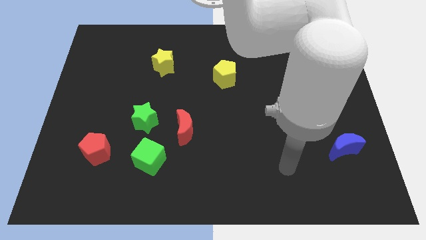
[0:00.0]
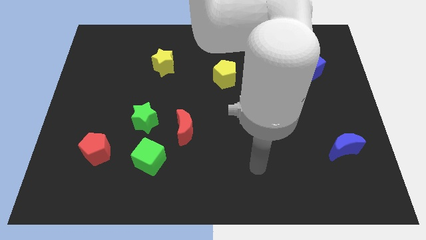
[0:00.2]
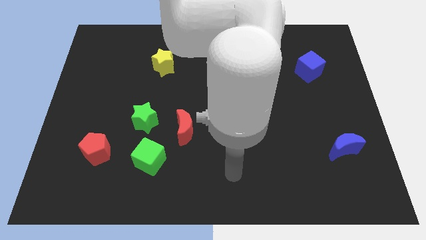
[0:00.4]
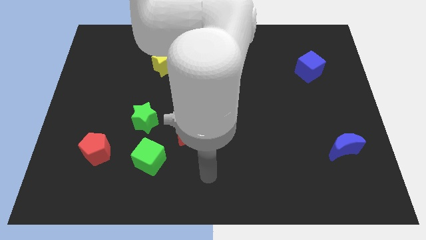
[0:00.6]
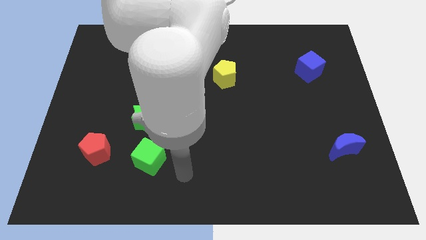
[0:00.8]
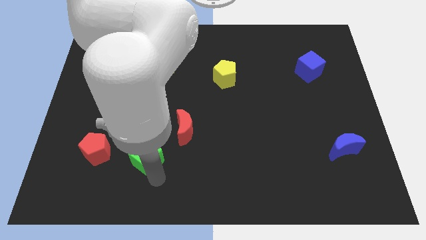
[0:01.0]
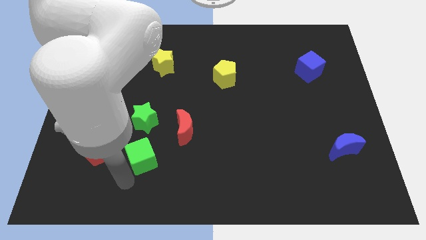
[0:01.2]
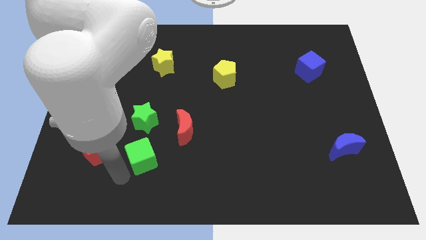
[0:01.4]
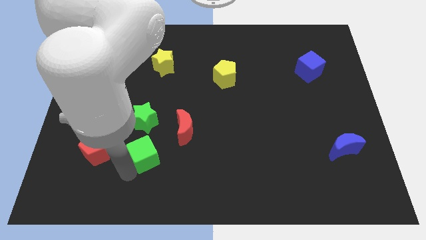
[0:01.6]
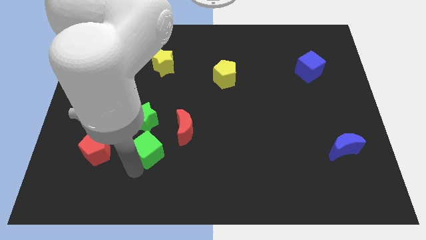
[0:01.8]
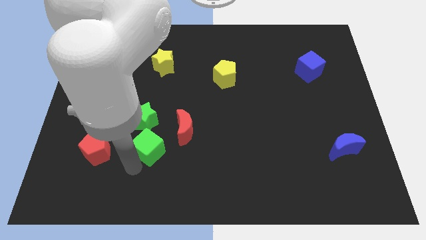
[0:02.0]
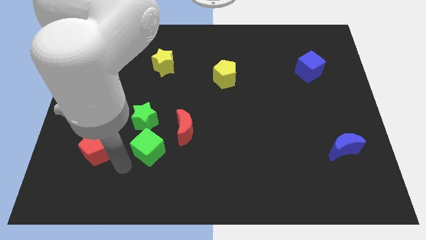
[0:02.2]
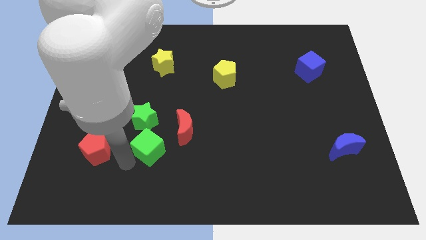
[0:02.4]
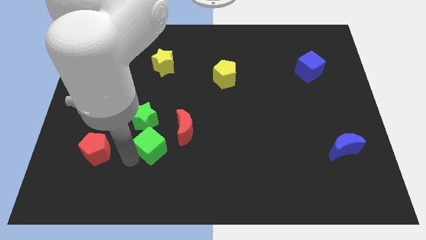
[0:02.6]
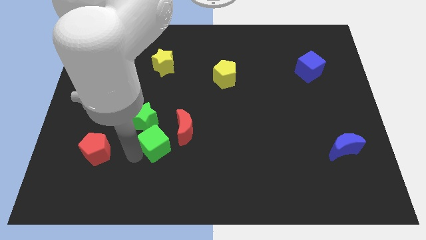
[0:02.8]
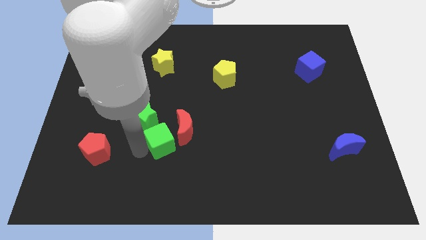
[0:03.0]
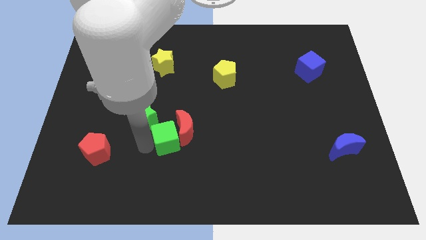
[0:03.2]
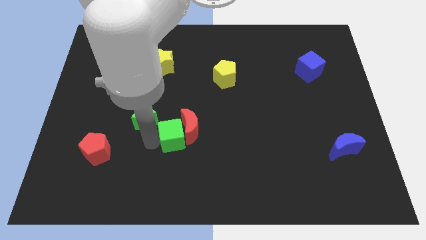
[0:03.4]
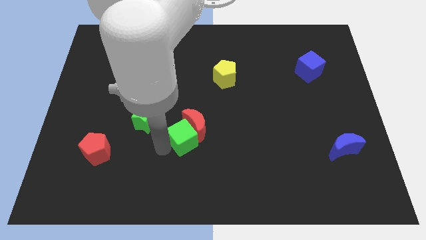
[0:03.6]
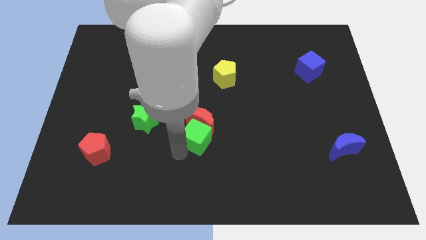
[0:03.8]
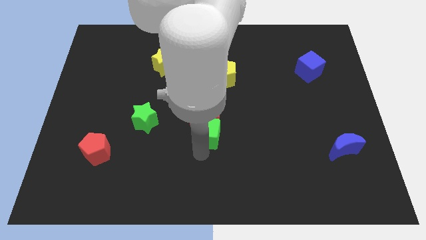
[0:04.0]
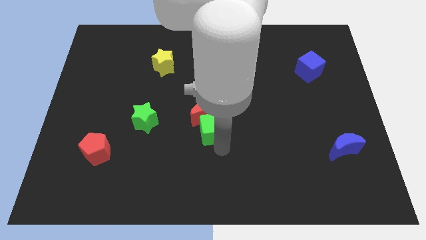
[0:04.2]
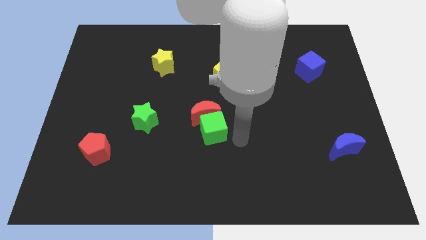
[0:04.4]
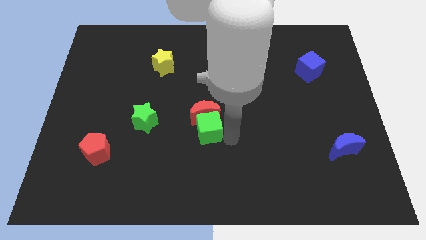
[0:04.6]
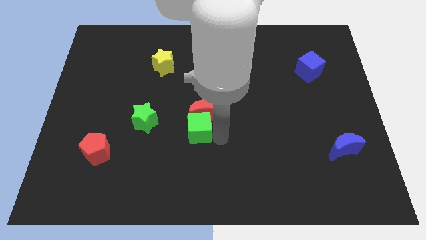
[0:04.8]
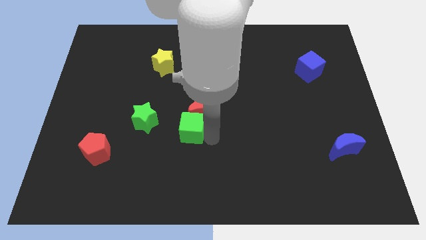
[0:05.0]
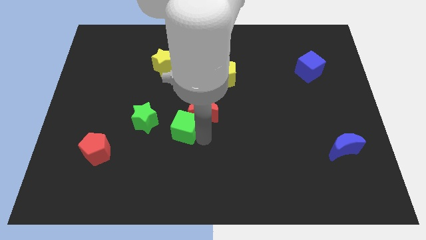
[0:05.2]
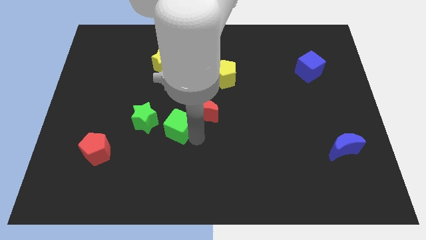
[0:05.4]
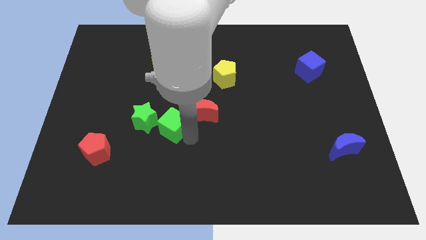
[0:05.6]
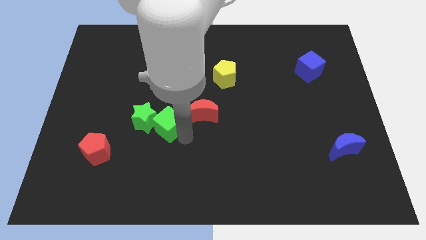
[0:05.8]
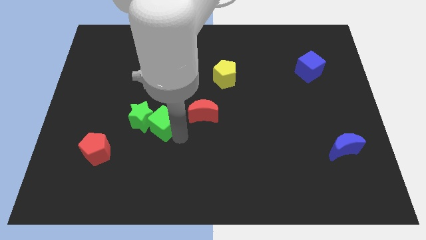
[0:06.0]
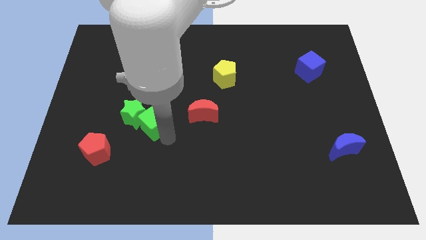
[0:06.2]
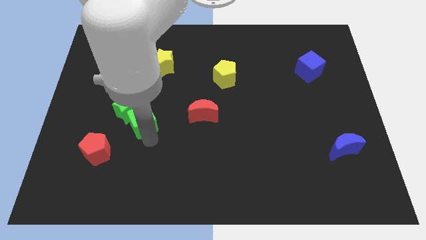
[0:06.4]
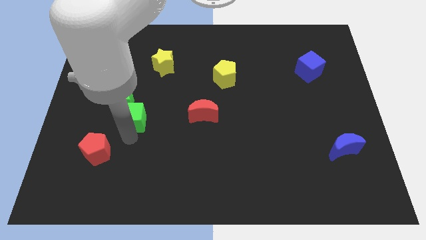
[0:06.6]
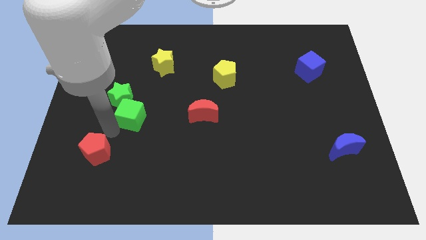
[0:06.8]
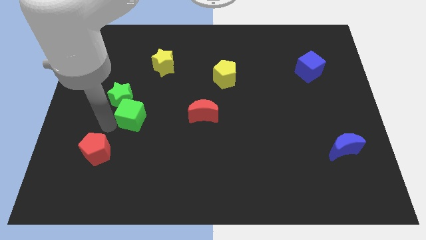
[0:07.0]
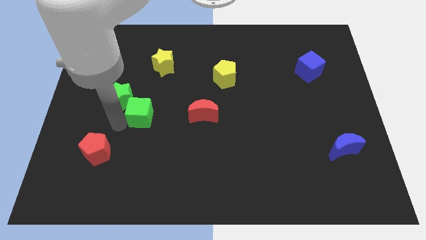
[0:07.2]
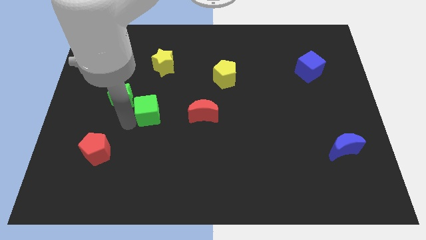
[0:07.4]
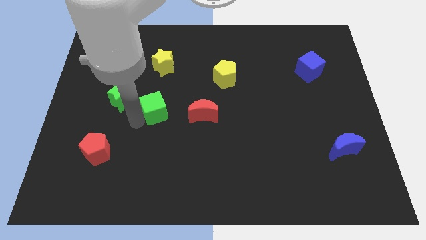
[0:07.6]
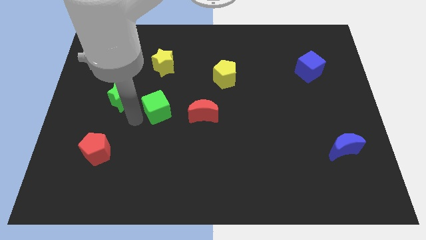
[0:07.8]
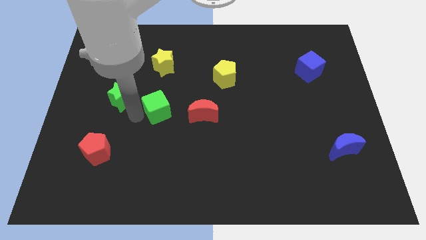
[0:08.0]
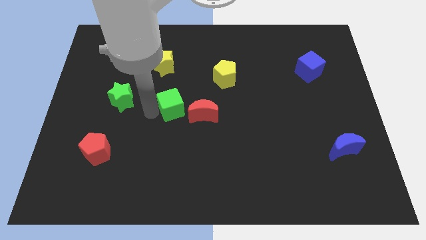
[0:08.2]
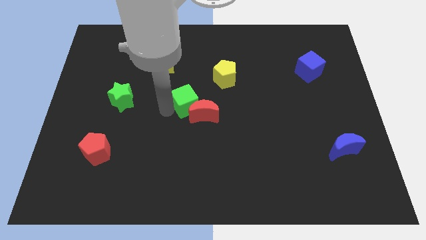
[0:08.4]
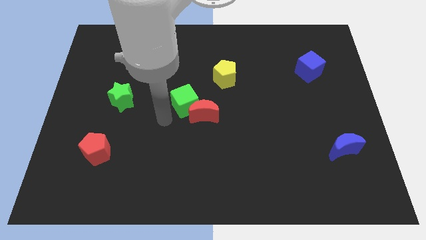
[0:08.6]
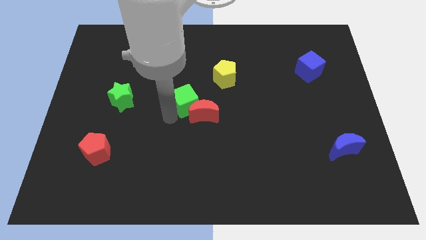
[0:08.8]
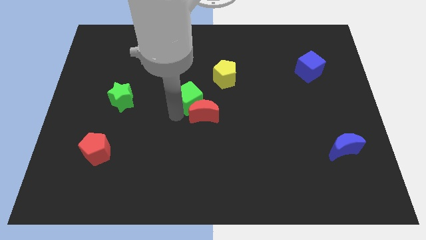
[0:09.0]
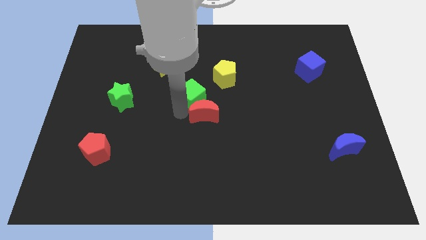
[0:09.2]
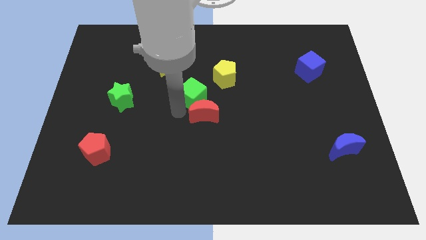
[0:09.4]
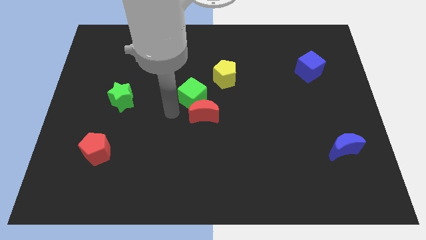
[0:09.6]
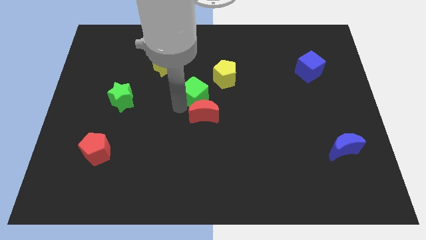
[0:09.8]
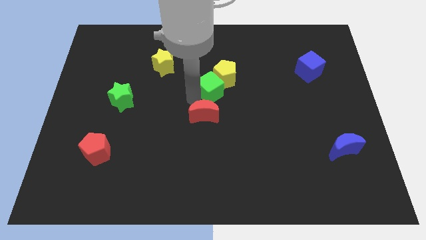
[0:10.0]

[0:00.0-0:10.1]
slide the green cube close to the yellow pentagon

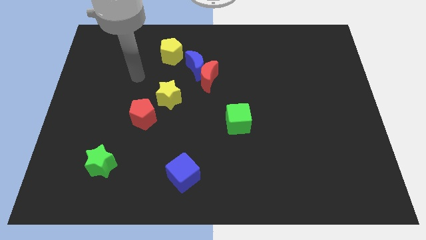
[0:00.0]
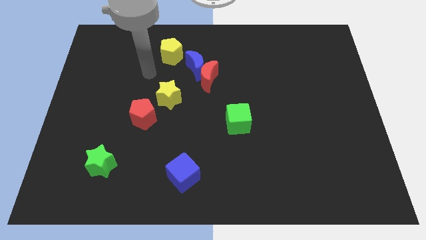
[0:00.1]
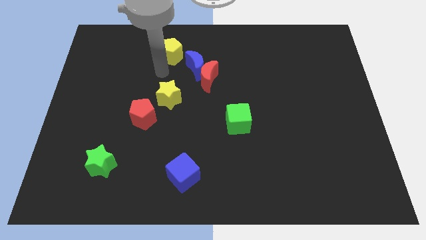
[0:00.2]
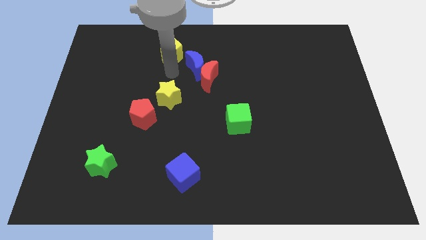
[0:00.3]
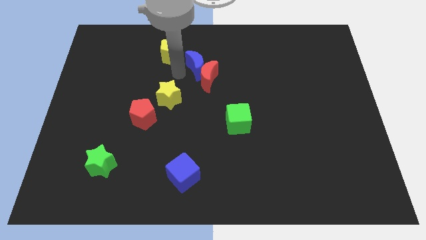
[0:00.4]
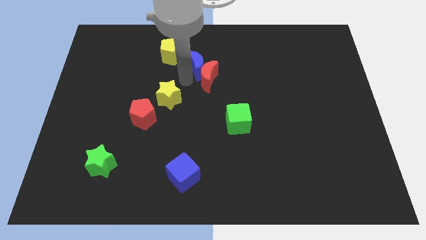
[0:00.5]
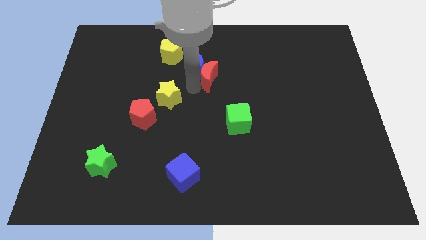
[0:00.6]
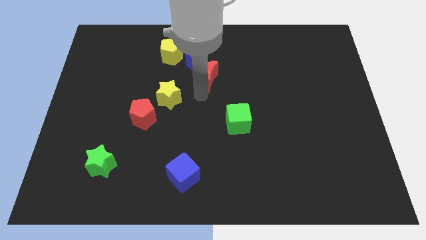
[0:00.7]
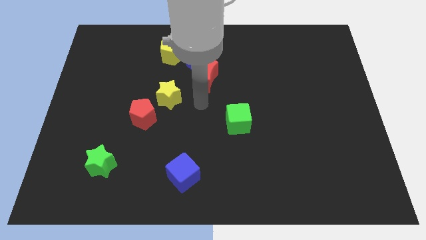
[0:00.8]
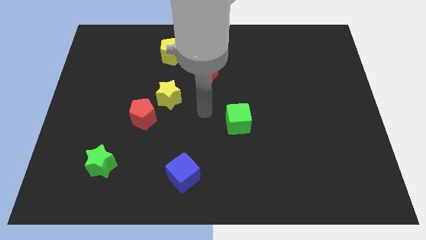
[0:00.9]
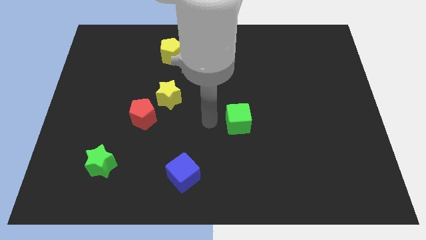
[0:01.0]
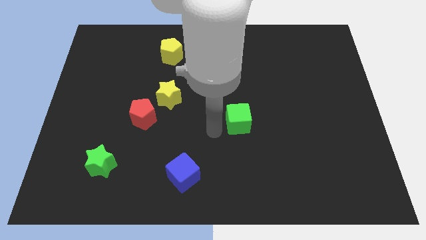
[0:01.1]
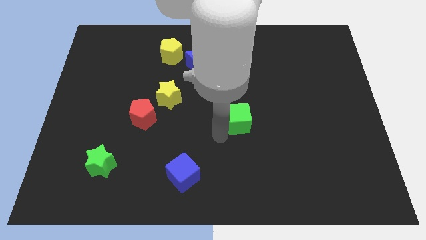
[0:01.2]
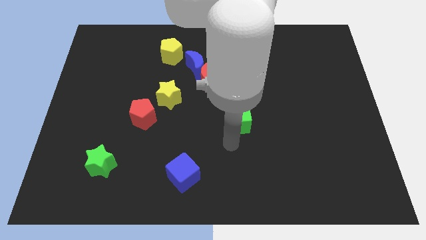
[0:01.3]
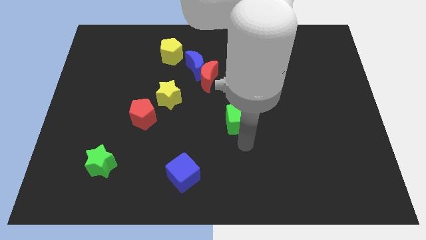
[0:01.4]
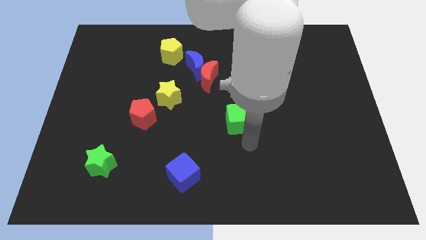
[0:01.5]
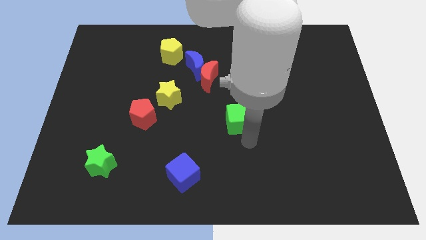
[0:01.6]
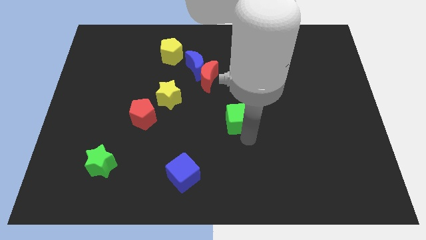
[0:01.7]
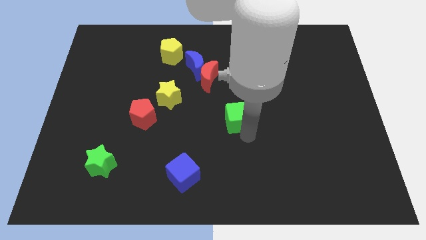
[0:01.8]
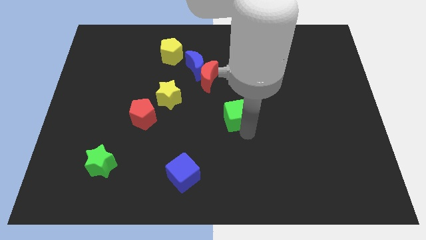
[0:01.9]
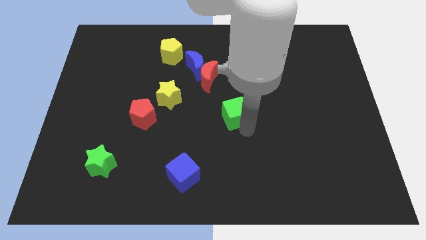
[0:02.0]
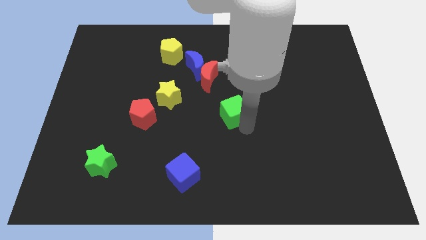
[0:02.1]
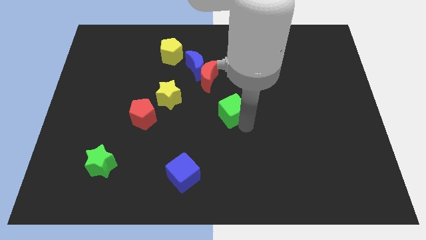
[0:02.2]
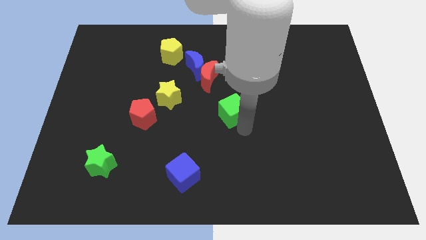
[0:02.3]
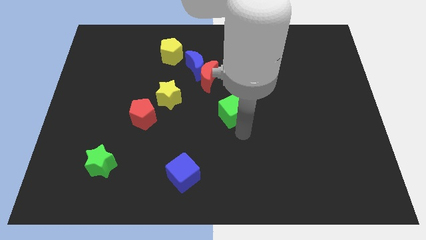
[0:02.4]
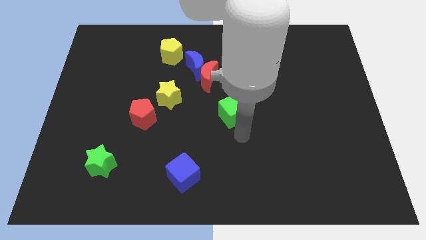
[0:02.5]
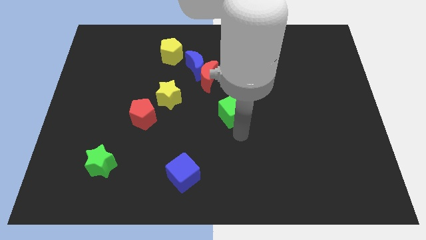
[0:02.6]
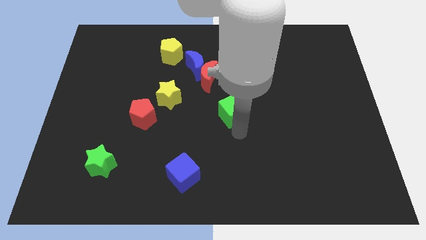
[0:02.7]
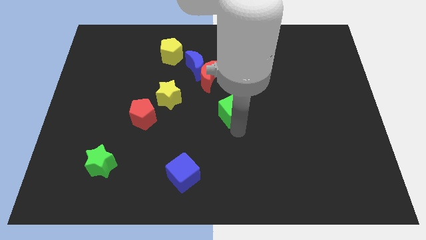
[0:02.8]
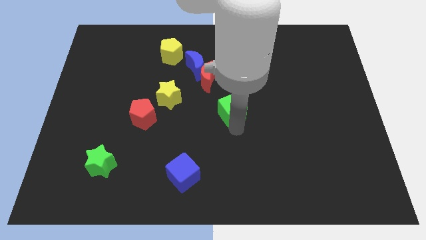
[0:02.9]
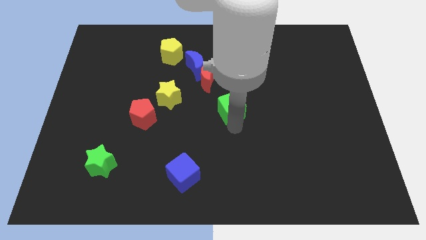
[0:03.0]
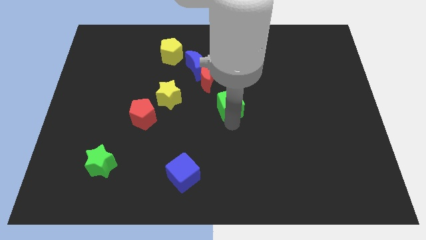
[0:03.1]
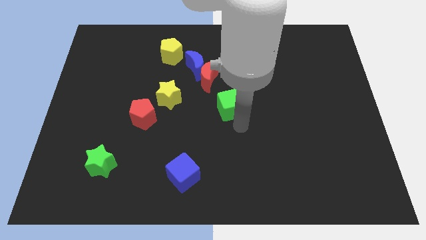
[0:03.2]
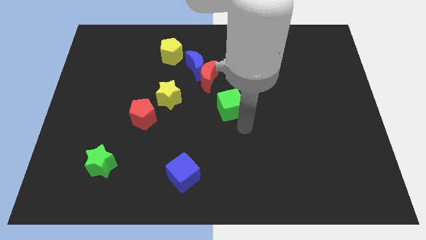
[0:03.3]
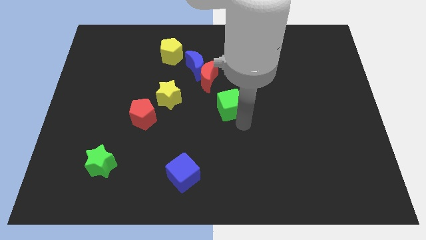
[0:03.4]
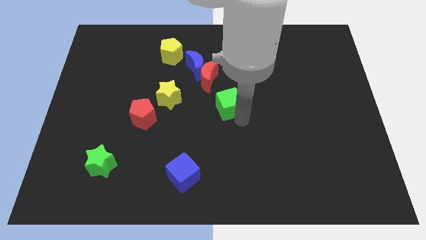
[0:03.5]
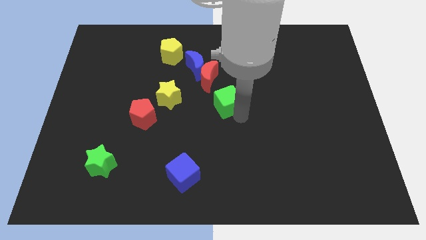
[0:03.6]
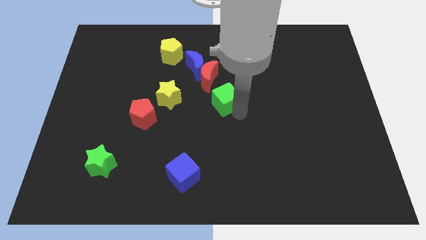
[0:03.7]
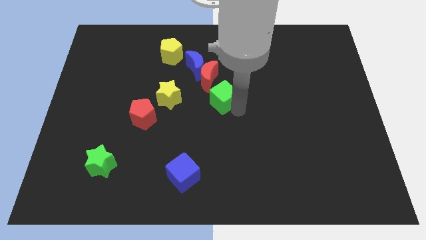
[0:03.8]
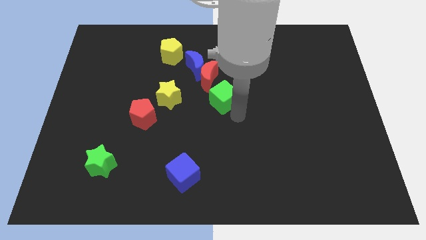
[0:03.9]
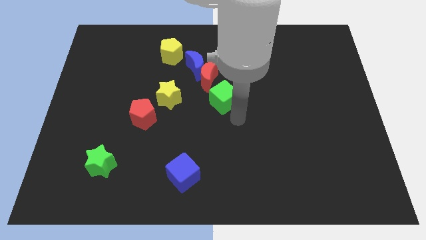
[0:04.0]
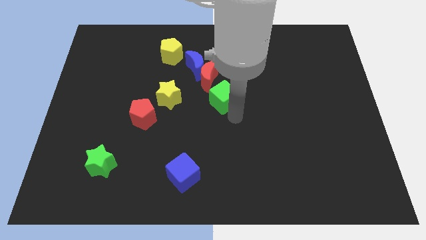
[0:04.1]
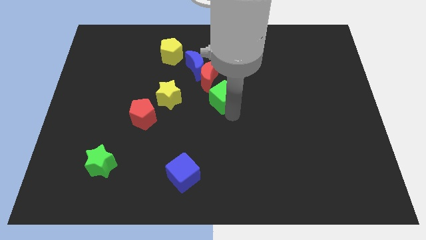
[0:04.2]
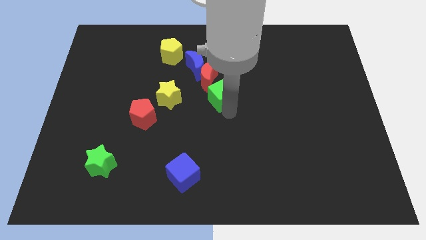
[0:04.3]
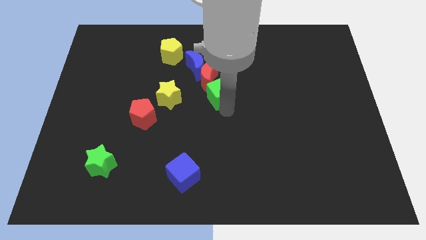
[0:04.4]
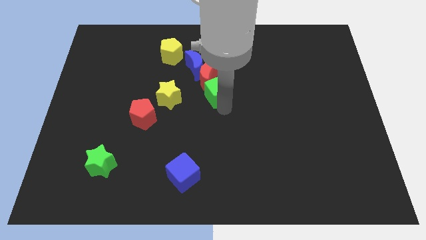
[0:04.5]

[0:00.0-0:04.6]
slide the green cube to the red moon
